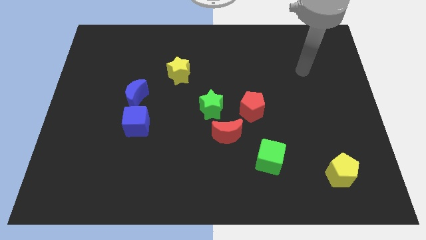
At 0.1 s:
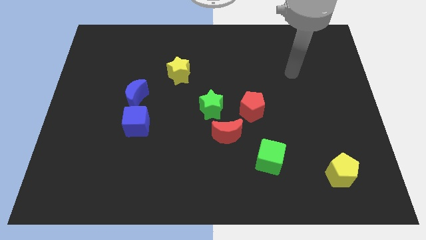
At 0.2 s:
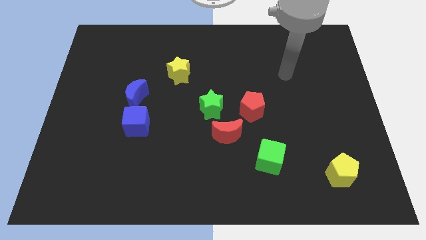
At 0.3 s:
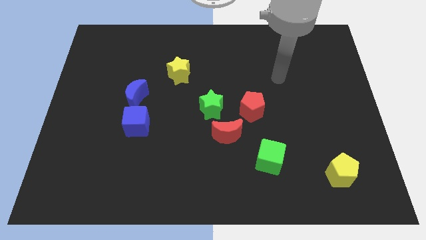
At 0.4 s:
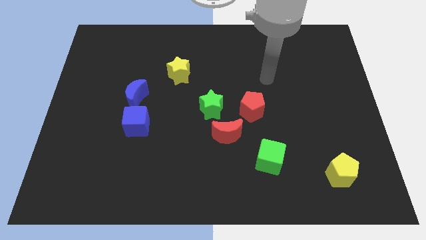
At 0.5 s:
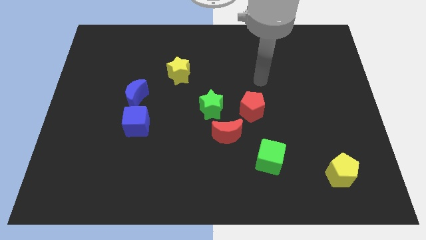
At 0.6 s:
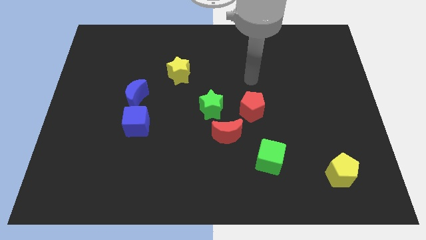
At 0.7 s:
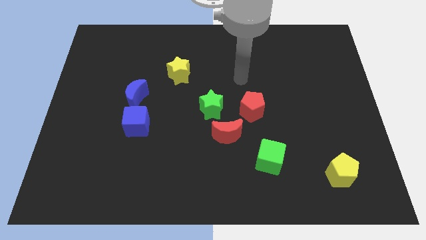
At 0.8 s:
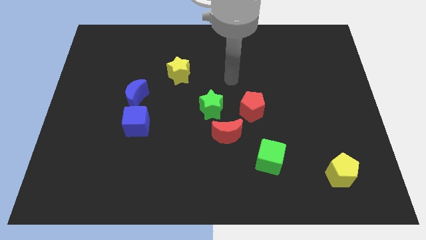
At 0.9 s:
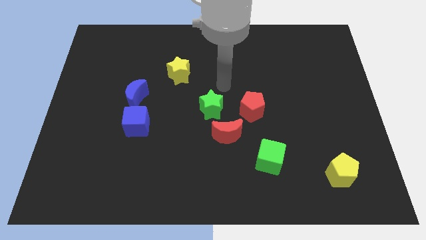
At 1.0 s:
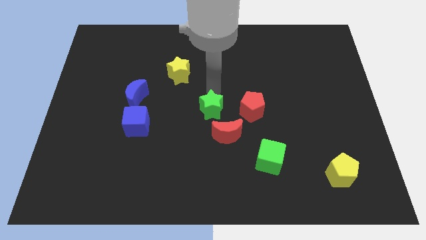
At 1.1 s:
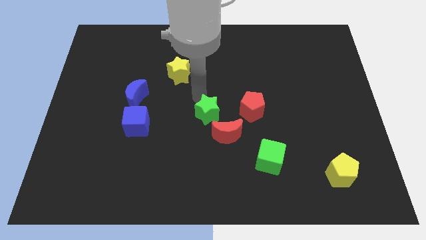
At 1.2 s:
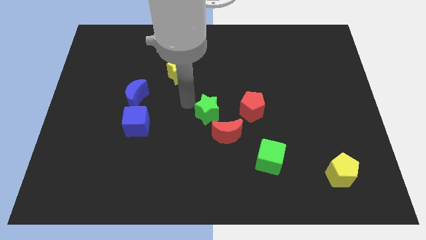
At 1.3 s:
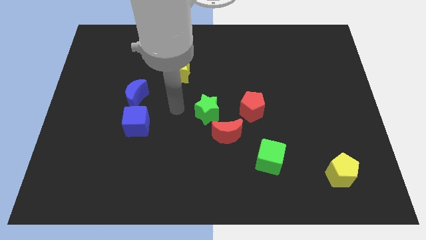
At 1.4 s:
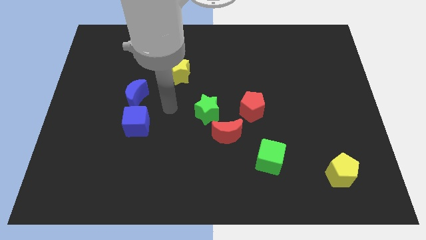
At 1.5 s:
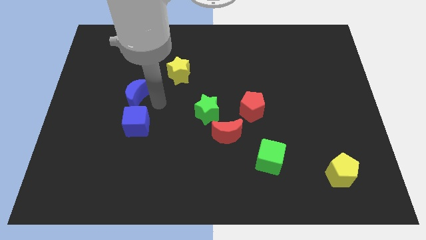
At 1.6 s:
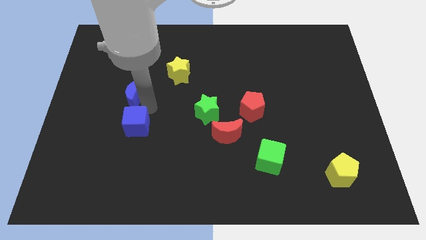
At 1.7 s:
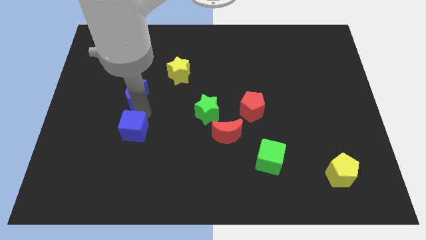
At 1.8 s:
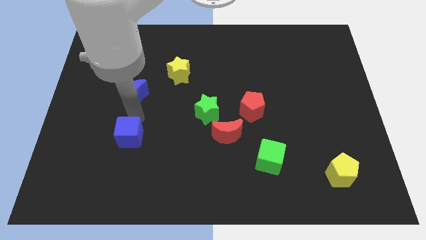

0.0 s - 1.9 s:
separate the blue moon from the blue cube

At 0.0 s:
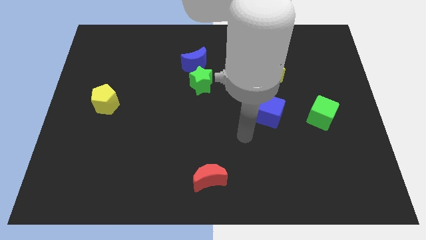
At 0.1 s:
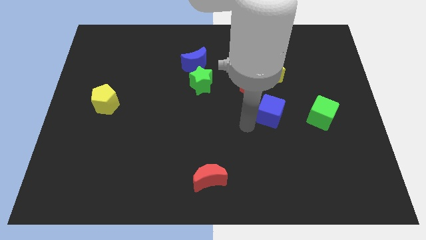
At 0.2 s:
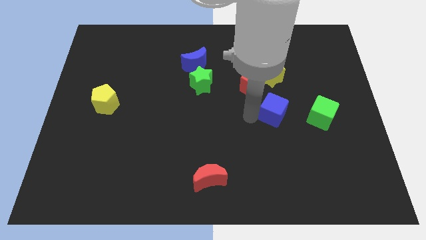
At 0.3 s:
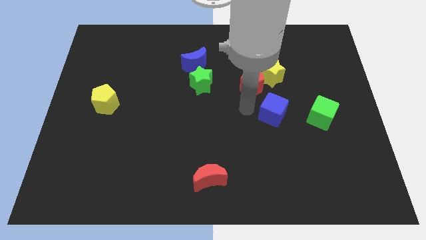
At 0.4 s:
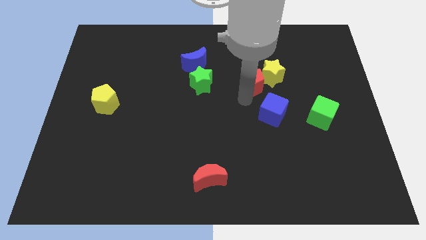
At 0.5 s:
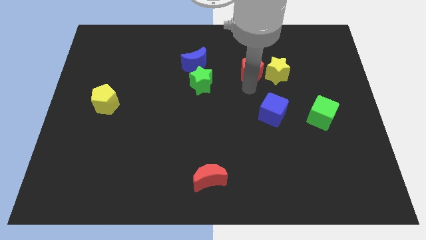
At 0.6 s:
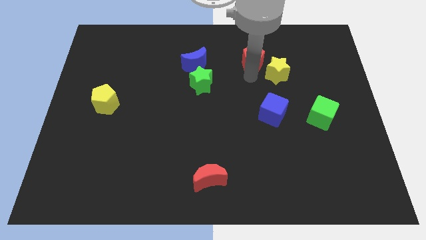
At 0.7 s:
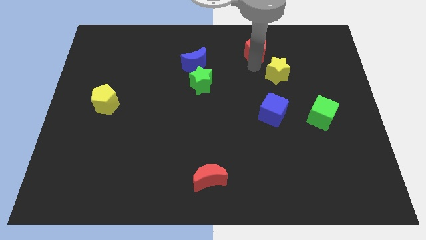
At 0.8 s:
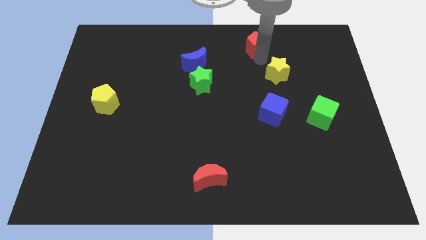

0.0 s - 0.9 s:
move the yellow star away from the red pentagon

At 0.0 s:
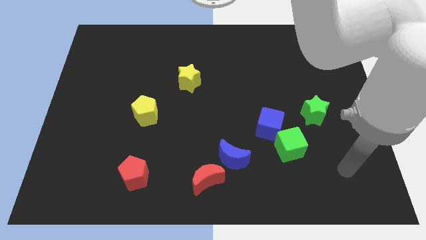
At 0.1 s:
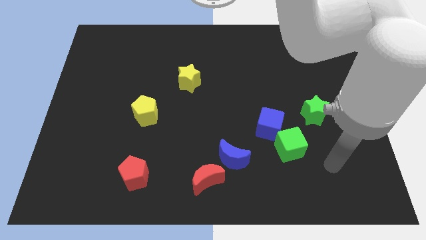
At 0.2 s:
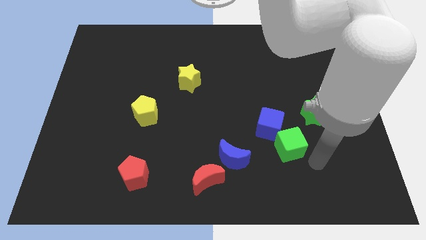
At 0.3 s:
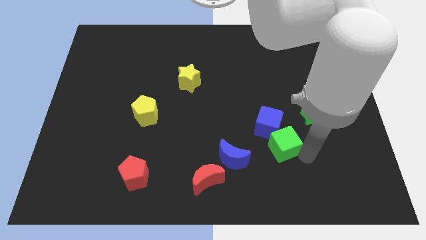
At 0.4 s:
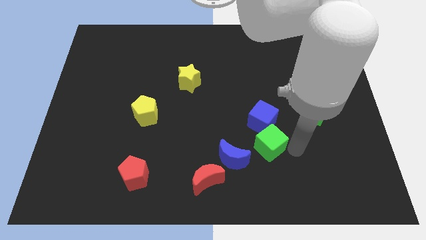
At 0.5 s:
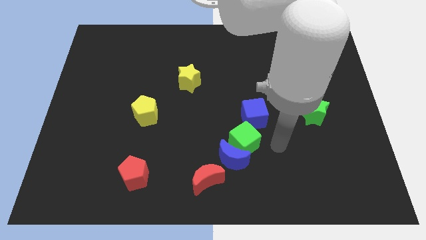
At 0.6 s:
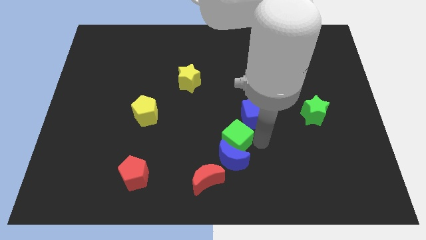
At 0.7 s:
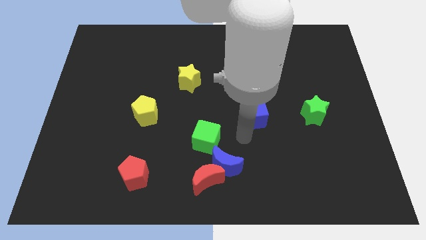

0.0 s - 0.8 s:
separate the blue cube from the green cube

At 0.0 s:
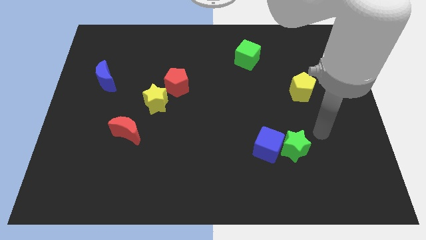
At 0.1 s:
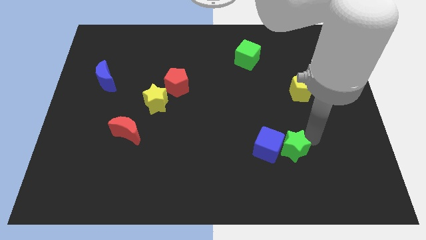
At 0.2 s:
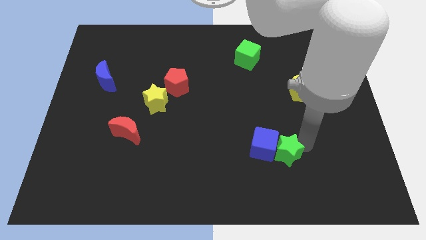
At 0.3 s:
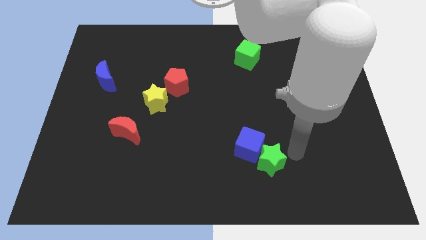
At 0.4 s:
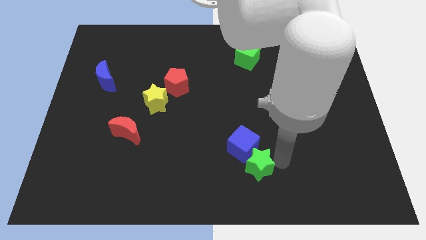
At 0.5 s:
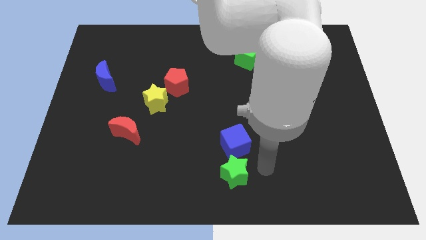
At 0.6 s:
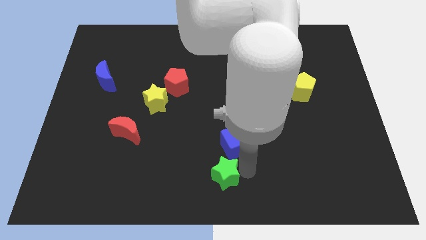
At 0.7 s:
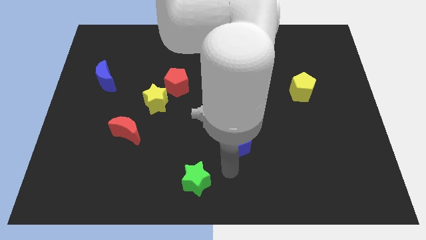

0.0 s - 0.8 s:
separate the blue cube from the green star

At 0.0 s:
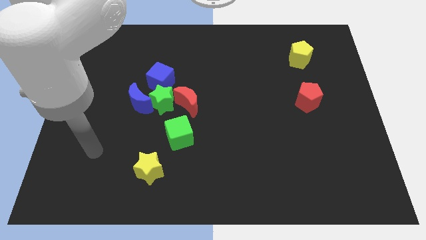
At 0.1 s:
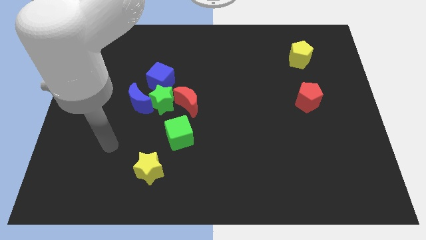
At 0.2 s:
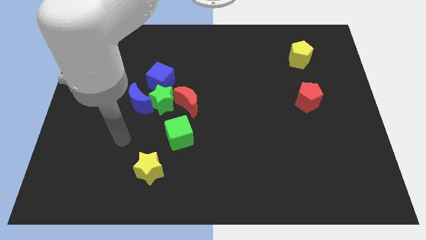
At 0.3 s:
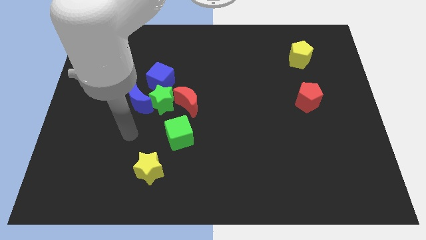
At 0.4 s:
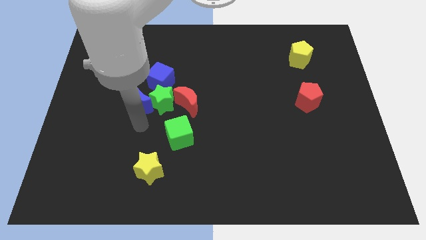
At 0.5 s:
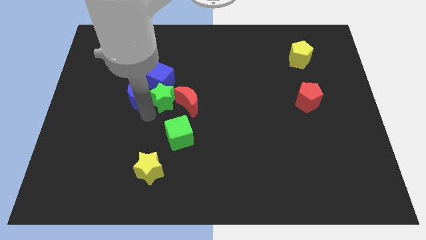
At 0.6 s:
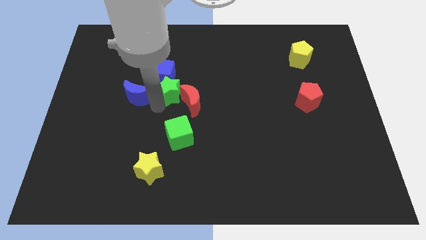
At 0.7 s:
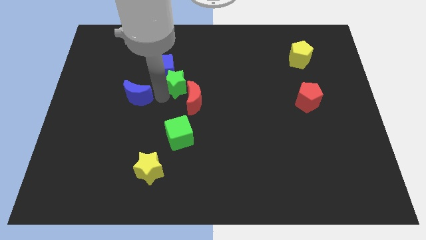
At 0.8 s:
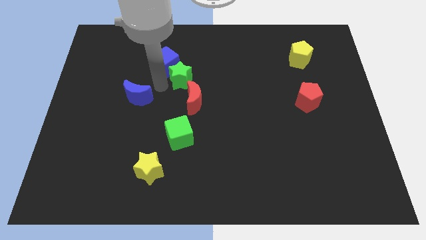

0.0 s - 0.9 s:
pull the blue moon apart from the green star and blue cube

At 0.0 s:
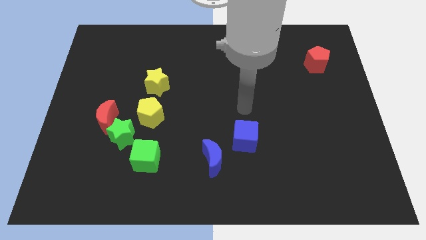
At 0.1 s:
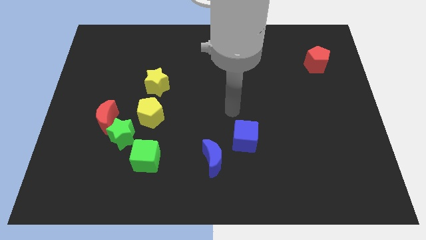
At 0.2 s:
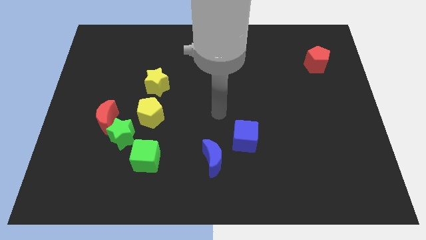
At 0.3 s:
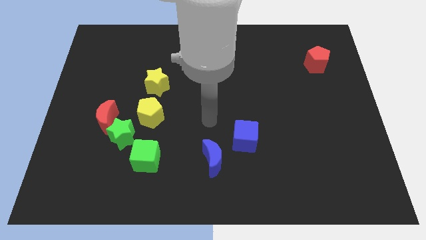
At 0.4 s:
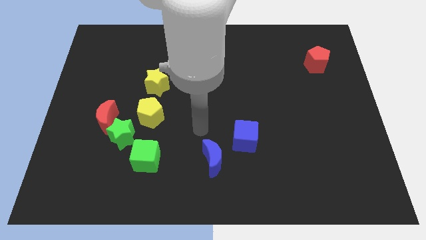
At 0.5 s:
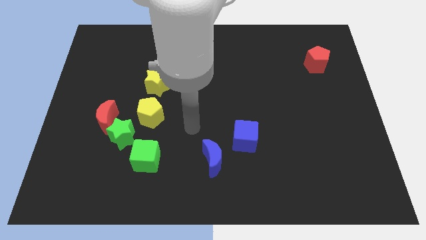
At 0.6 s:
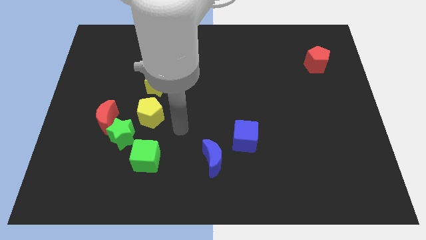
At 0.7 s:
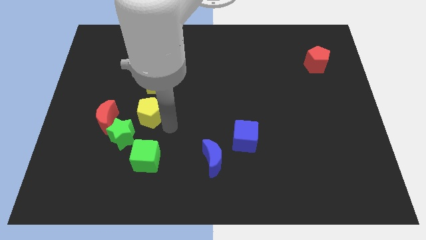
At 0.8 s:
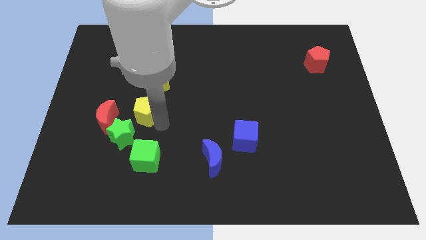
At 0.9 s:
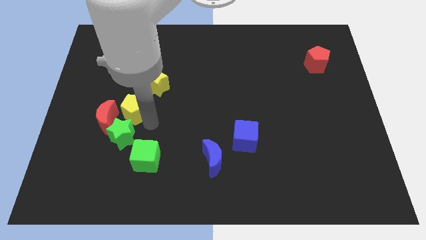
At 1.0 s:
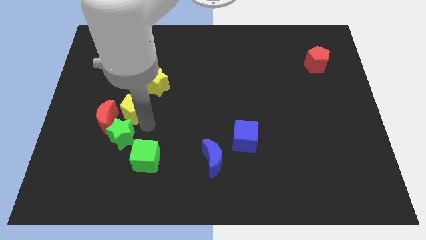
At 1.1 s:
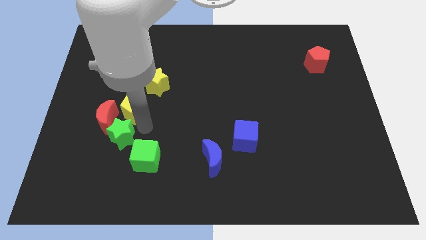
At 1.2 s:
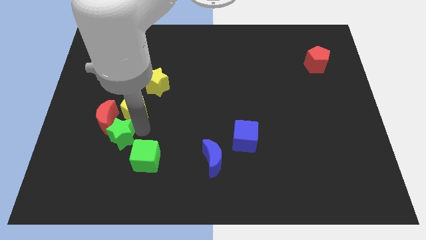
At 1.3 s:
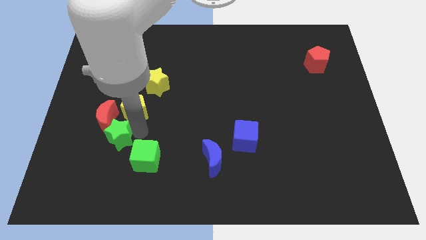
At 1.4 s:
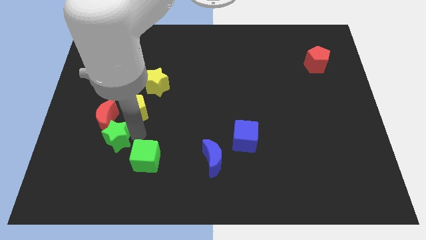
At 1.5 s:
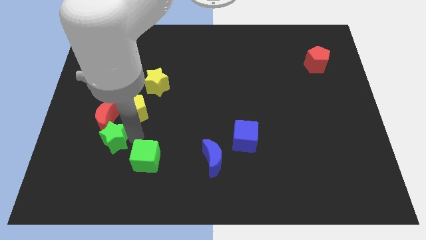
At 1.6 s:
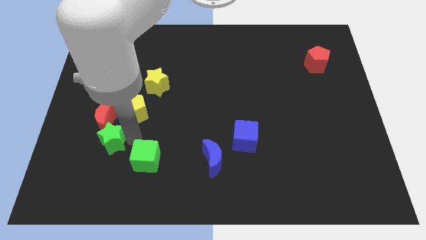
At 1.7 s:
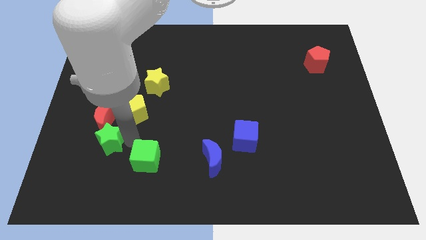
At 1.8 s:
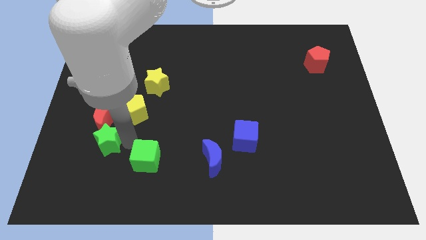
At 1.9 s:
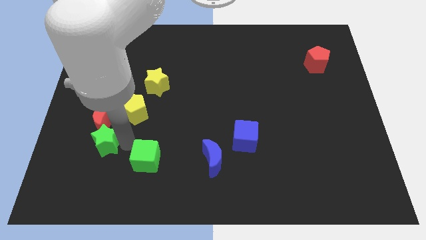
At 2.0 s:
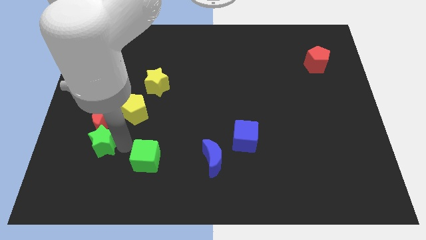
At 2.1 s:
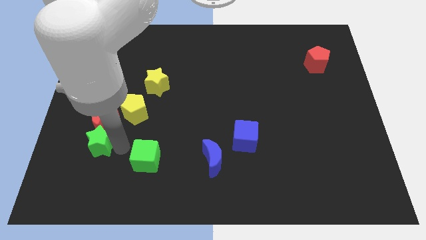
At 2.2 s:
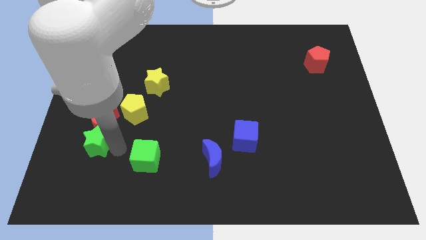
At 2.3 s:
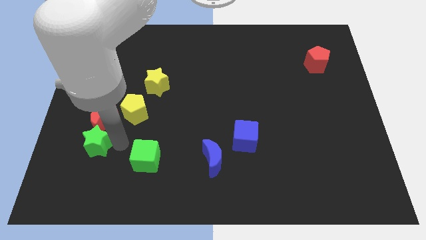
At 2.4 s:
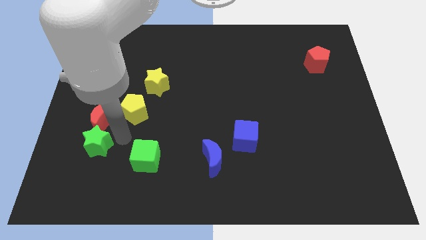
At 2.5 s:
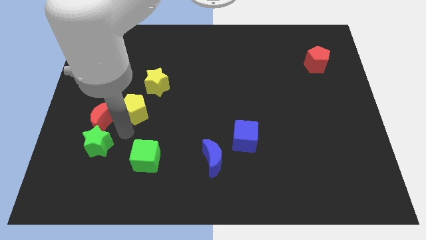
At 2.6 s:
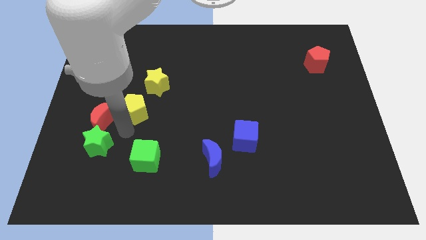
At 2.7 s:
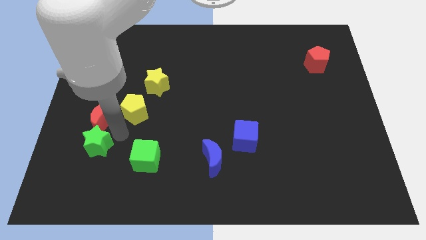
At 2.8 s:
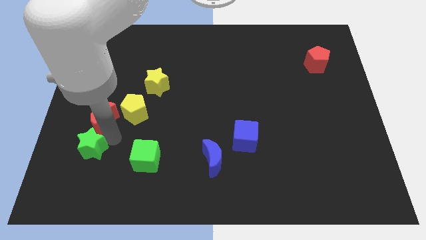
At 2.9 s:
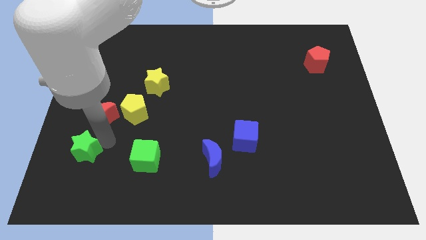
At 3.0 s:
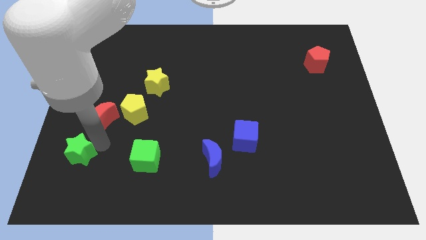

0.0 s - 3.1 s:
pull the green star apart from the clump

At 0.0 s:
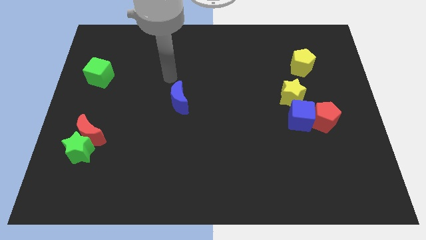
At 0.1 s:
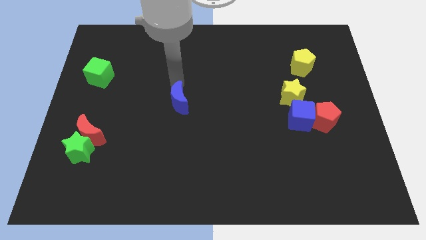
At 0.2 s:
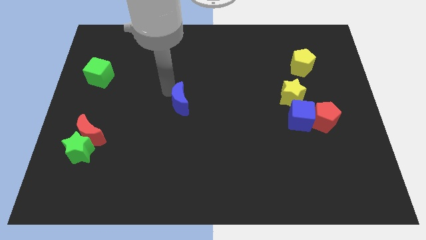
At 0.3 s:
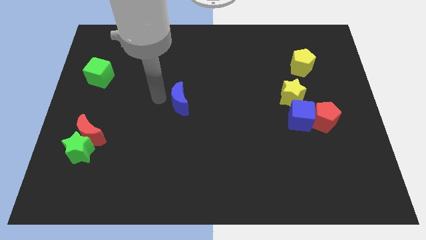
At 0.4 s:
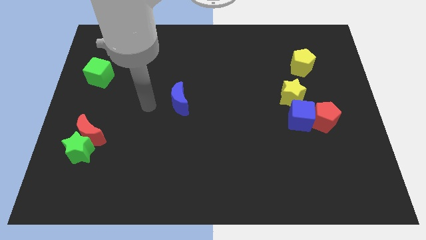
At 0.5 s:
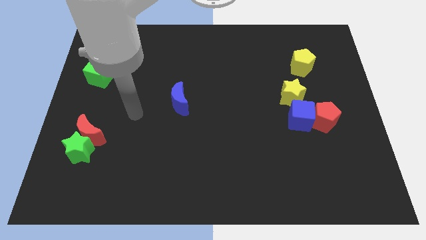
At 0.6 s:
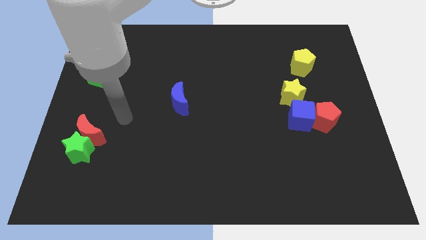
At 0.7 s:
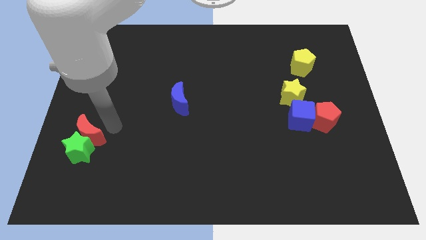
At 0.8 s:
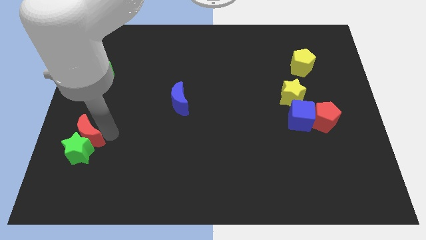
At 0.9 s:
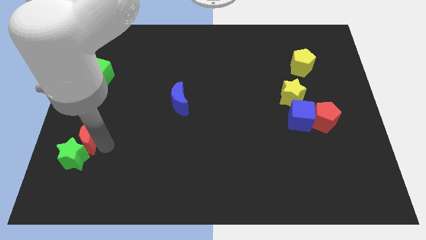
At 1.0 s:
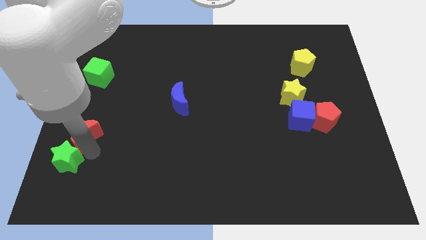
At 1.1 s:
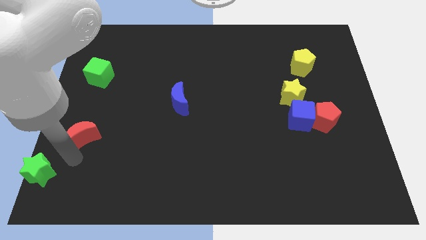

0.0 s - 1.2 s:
pull the red moon apart from the green star
